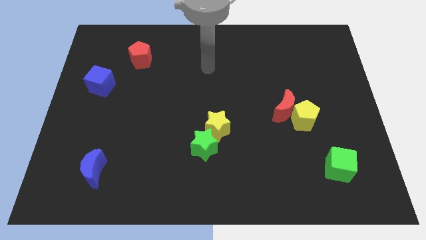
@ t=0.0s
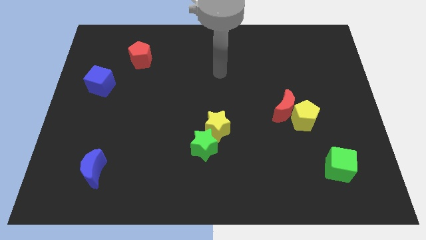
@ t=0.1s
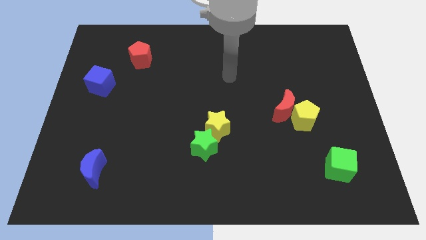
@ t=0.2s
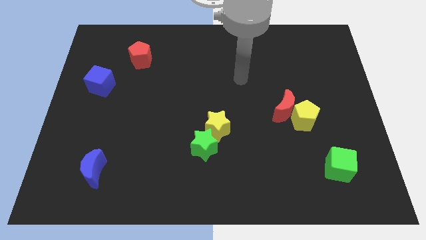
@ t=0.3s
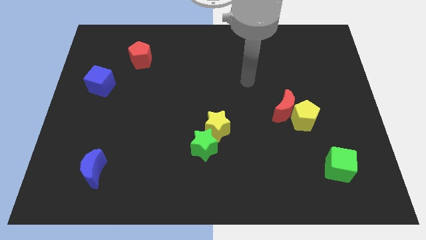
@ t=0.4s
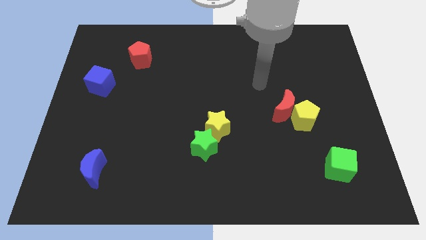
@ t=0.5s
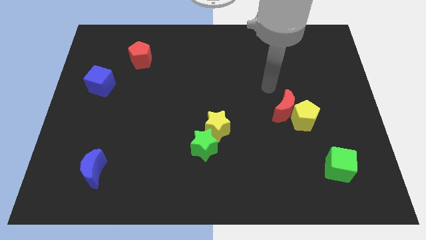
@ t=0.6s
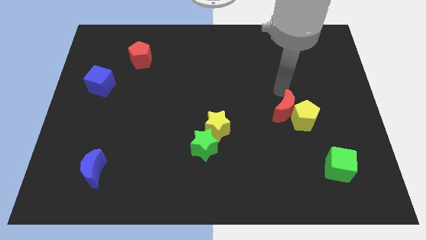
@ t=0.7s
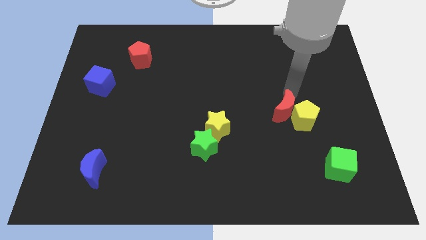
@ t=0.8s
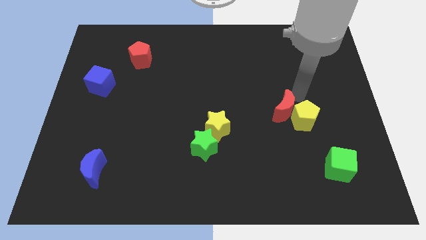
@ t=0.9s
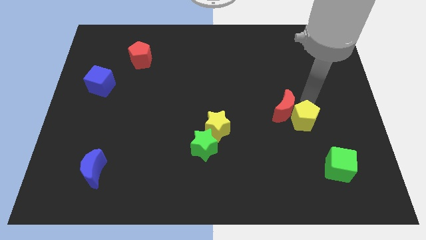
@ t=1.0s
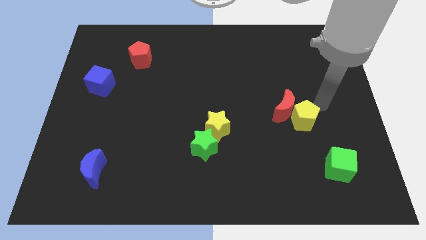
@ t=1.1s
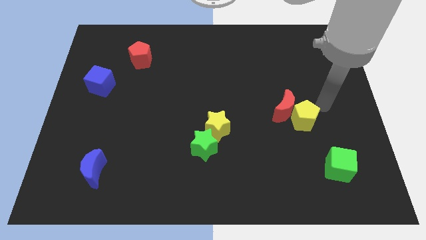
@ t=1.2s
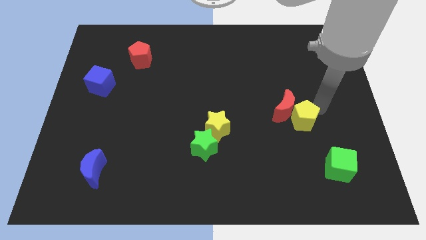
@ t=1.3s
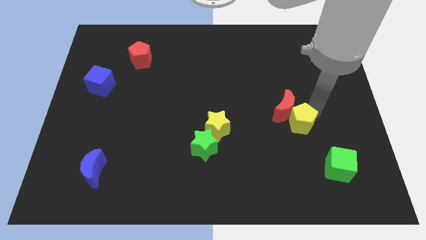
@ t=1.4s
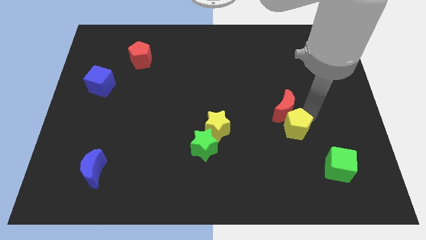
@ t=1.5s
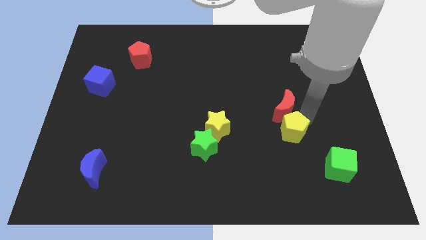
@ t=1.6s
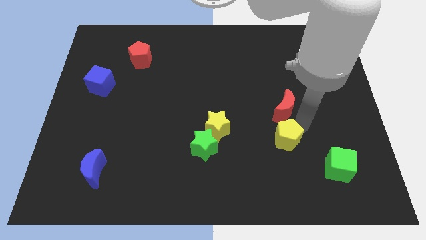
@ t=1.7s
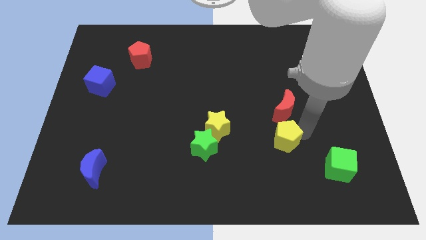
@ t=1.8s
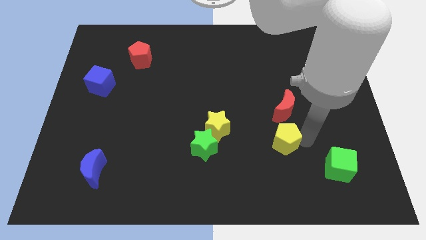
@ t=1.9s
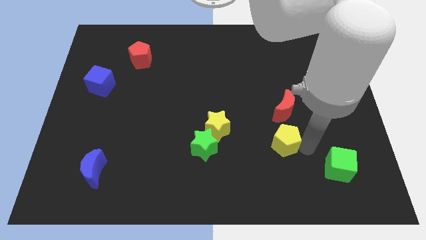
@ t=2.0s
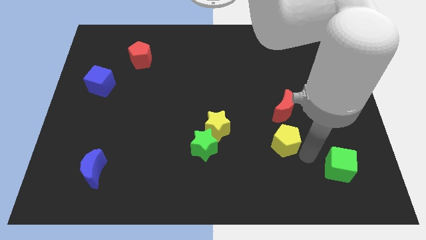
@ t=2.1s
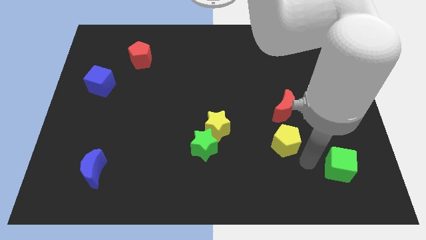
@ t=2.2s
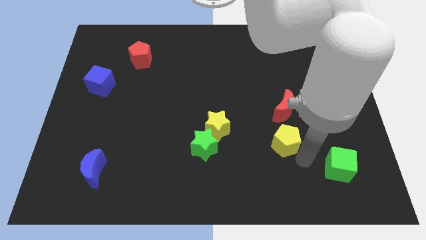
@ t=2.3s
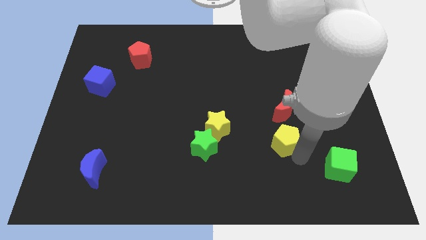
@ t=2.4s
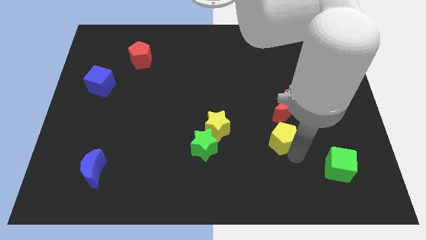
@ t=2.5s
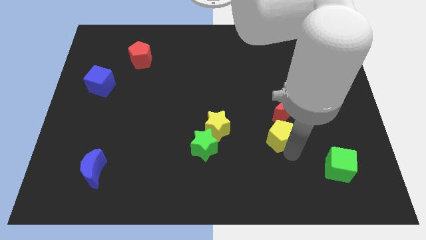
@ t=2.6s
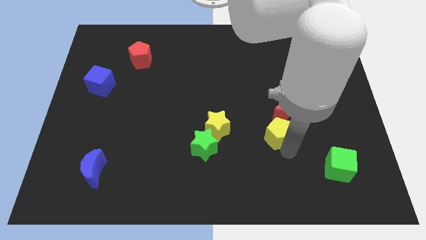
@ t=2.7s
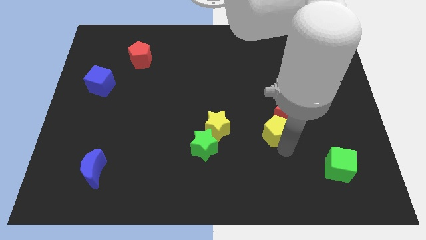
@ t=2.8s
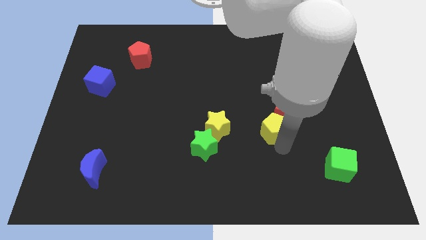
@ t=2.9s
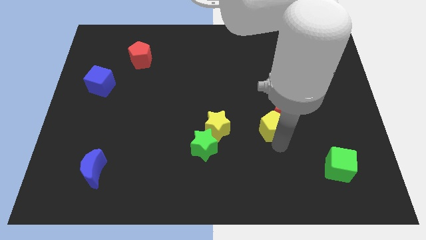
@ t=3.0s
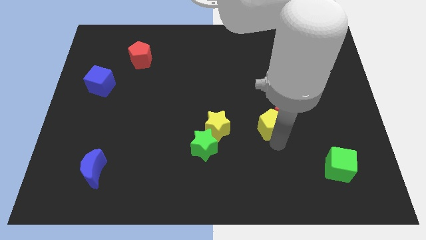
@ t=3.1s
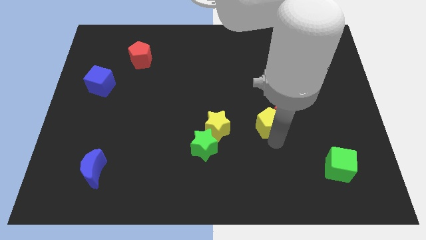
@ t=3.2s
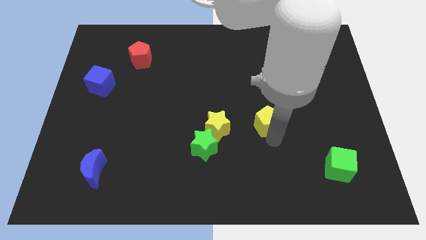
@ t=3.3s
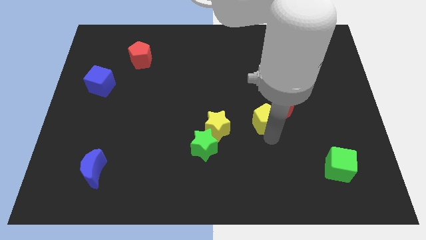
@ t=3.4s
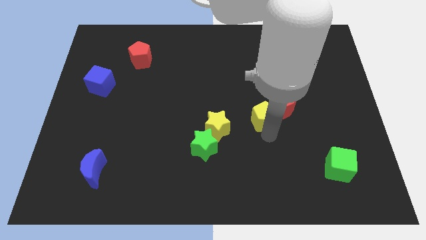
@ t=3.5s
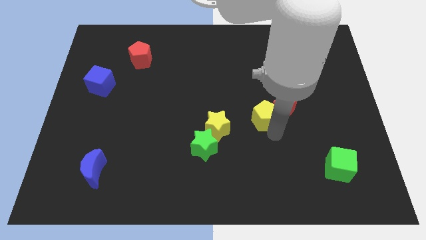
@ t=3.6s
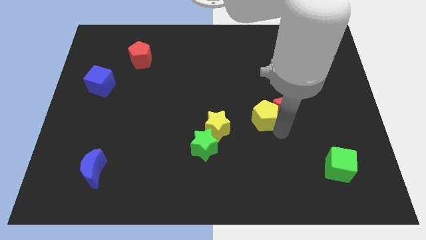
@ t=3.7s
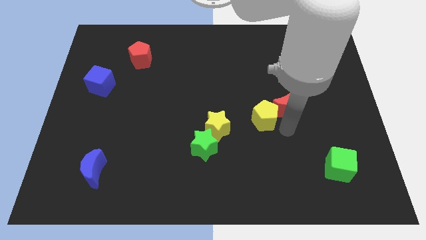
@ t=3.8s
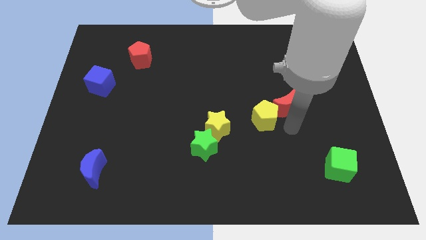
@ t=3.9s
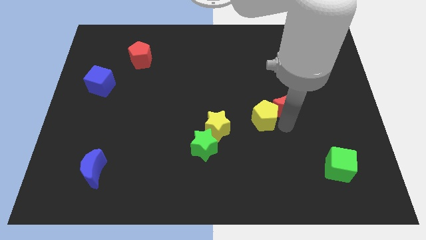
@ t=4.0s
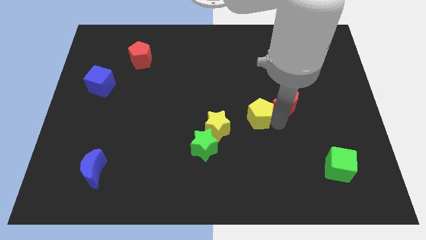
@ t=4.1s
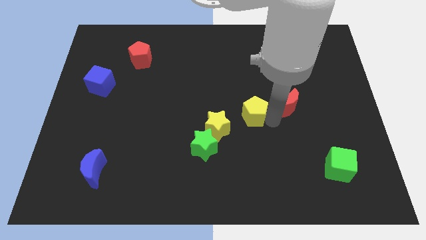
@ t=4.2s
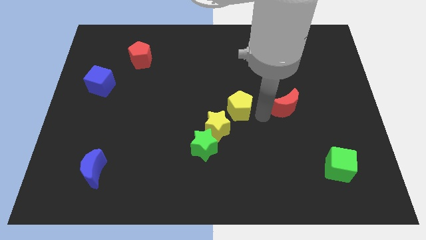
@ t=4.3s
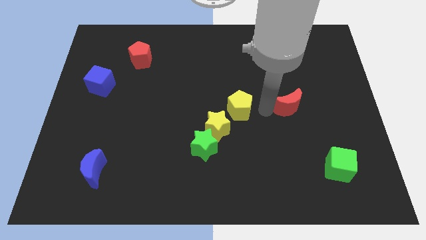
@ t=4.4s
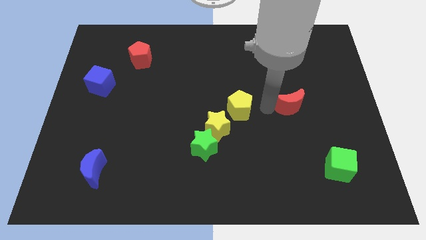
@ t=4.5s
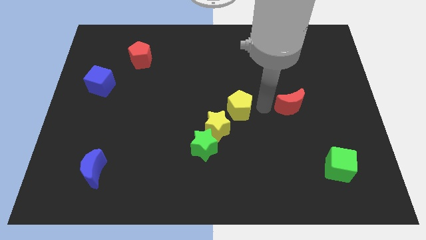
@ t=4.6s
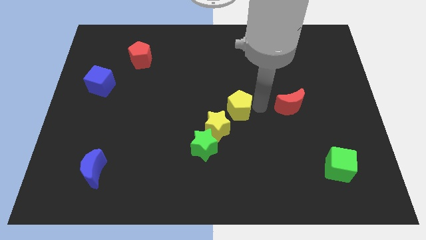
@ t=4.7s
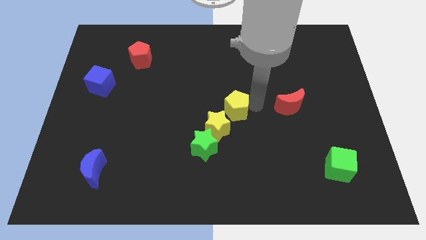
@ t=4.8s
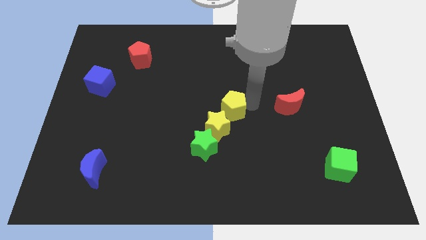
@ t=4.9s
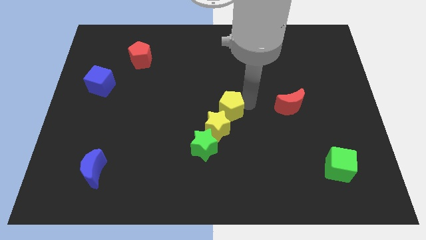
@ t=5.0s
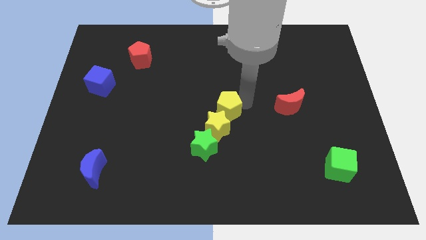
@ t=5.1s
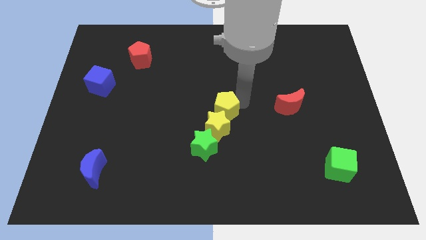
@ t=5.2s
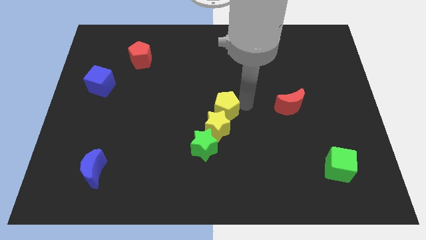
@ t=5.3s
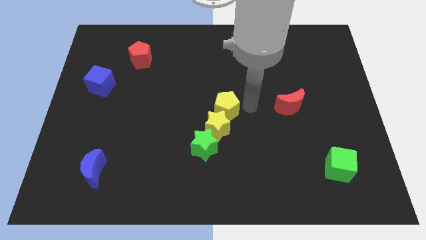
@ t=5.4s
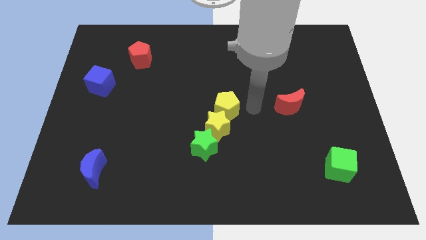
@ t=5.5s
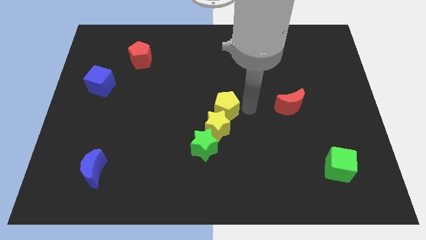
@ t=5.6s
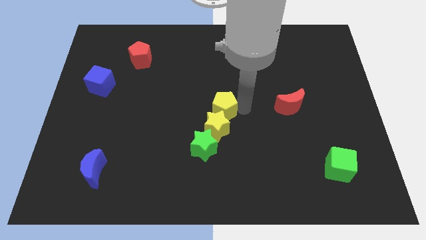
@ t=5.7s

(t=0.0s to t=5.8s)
move the yellow pentagon to the top side of the green star

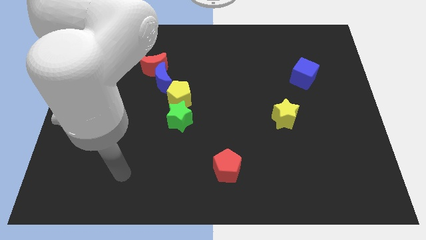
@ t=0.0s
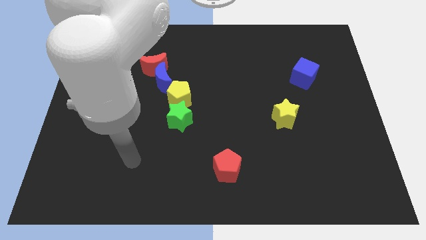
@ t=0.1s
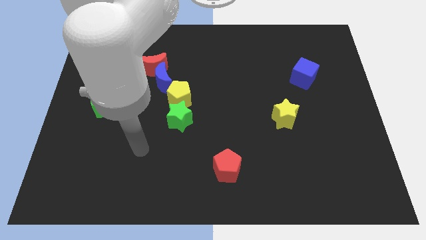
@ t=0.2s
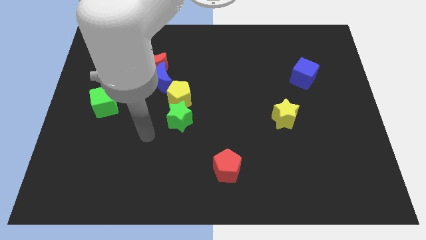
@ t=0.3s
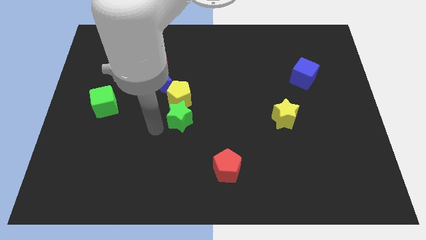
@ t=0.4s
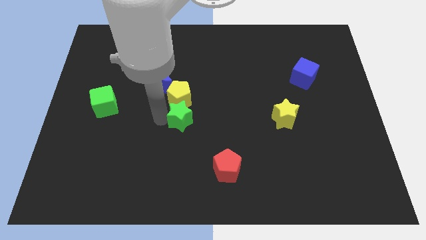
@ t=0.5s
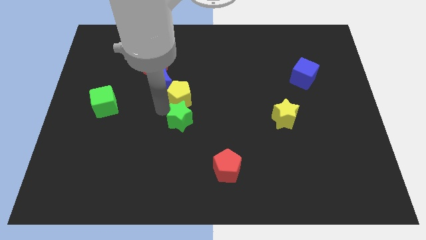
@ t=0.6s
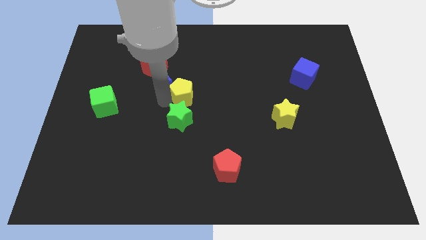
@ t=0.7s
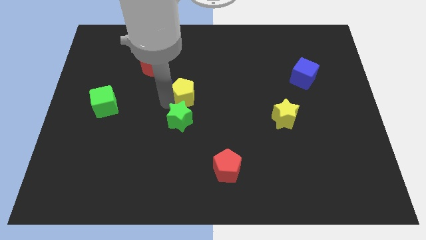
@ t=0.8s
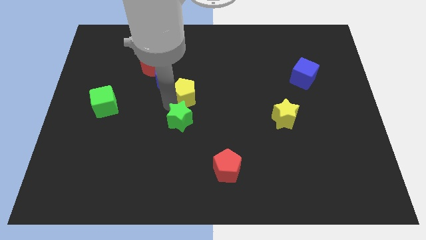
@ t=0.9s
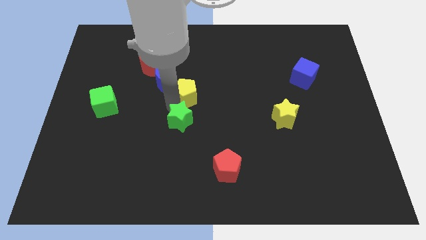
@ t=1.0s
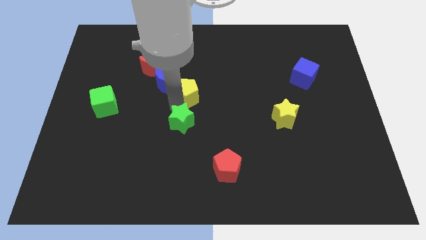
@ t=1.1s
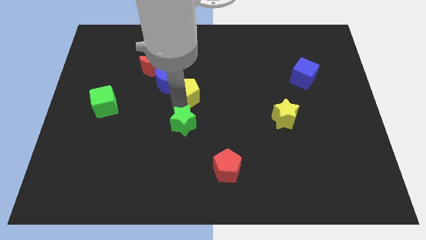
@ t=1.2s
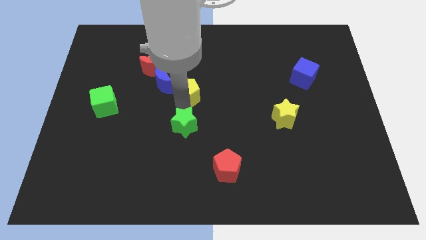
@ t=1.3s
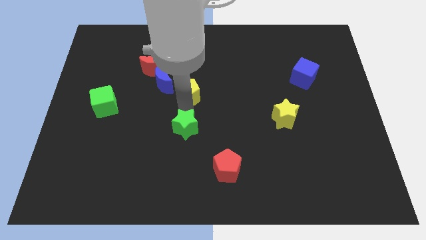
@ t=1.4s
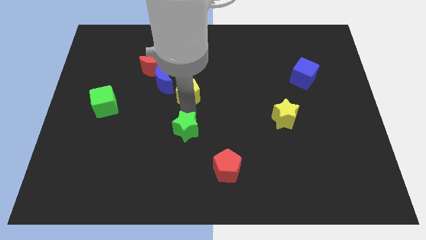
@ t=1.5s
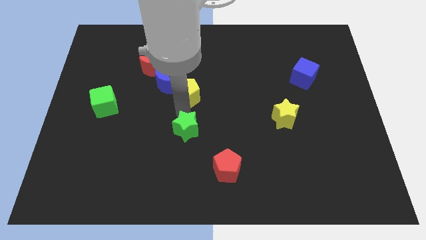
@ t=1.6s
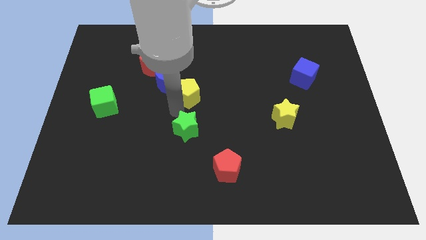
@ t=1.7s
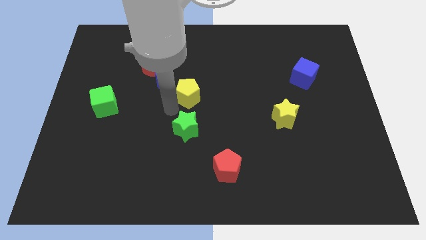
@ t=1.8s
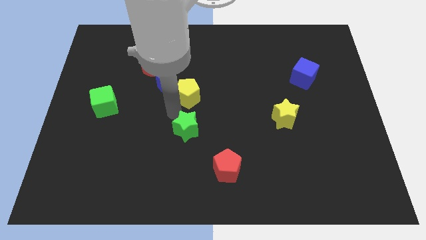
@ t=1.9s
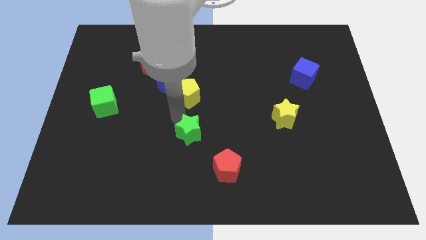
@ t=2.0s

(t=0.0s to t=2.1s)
push the green star to the top left side of the red pentagon
